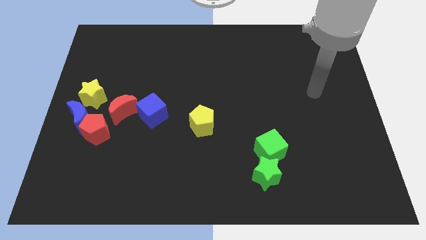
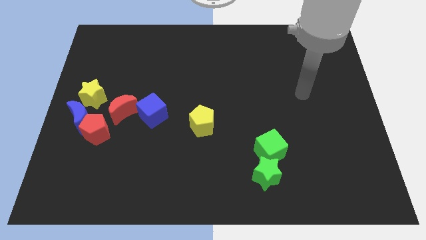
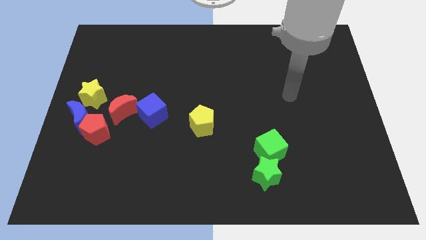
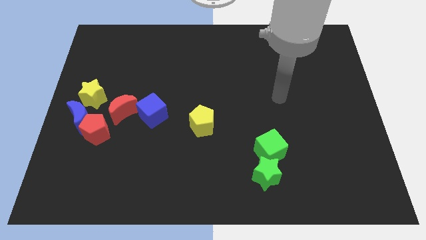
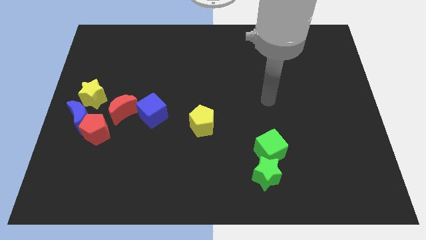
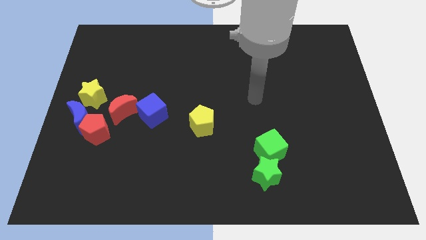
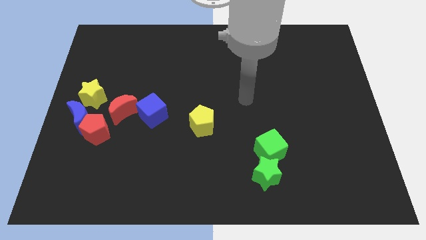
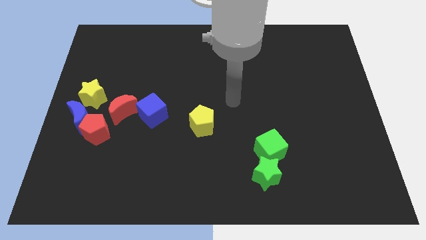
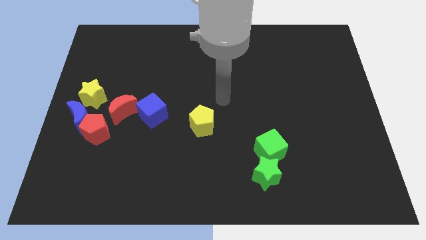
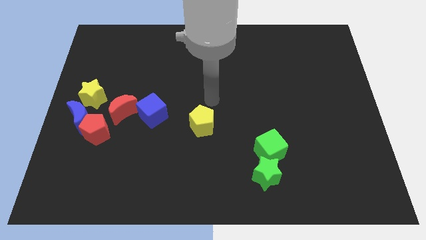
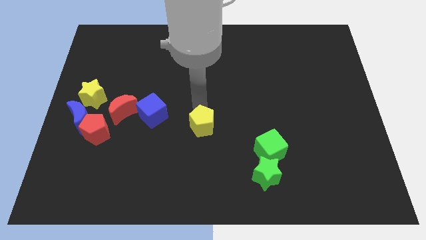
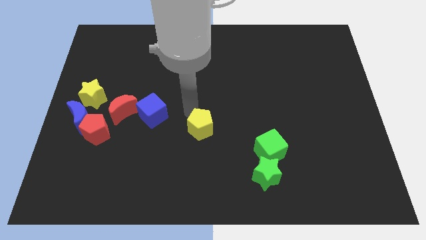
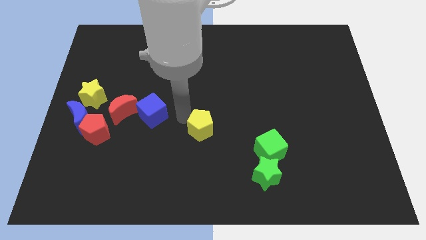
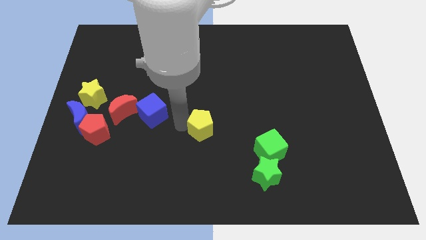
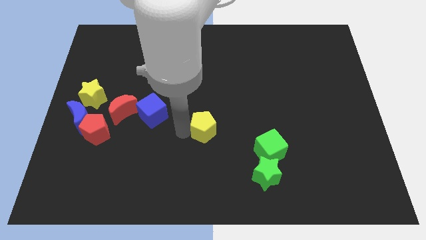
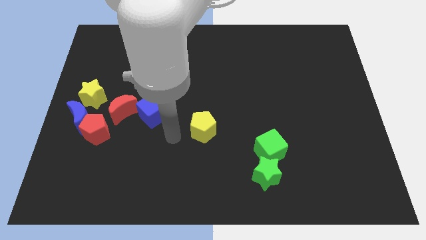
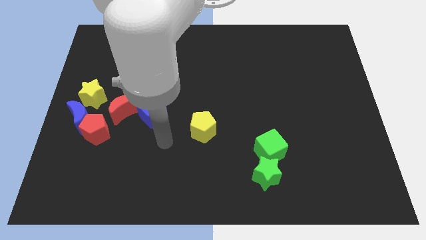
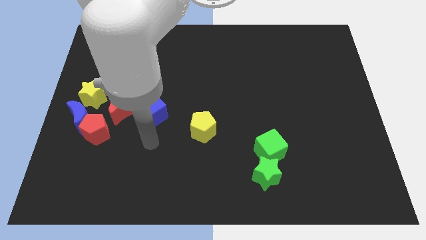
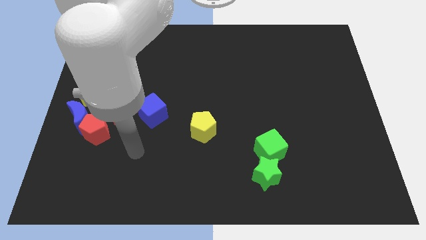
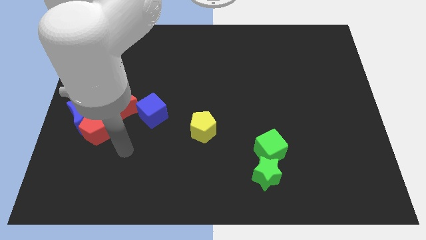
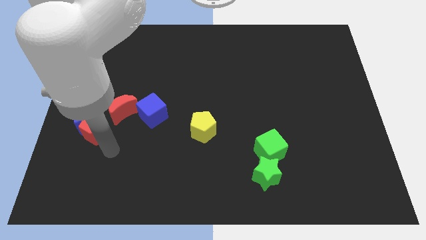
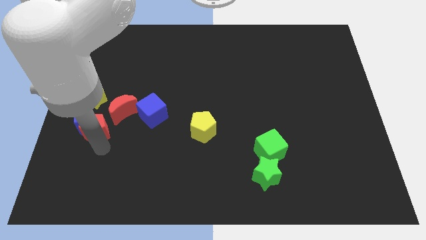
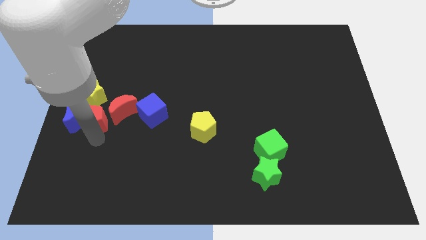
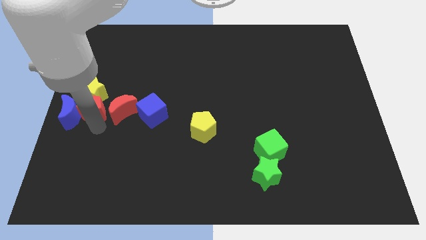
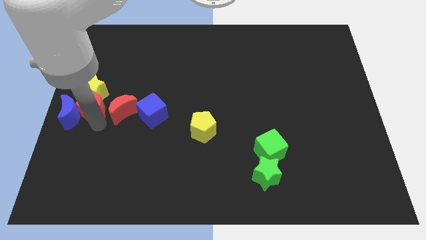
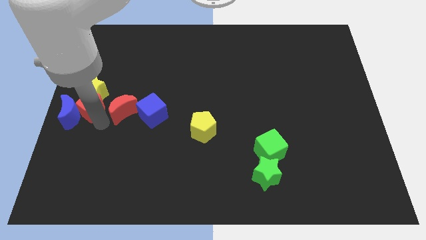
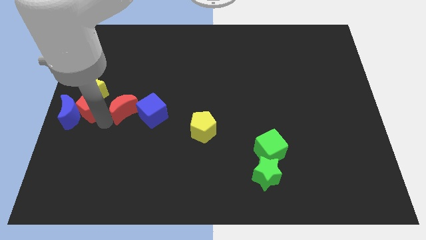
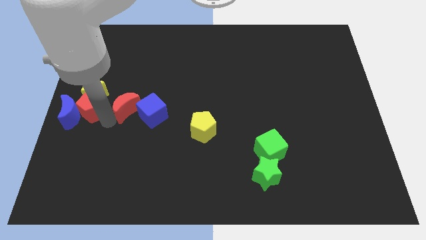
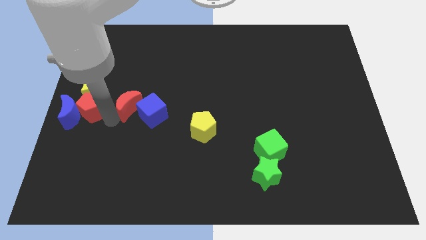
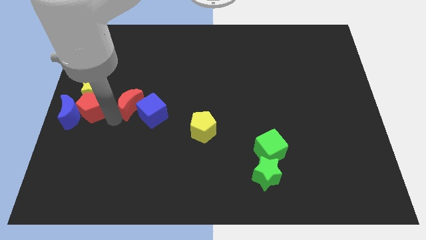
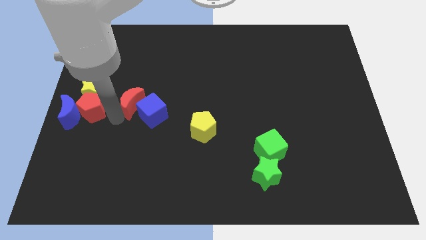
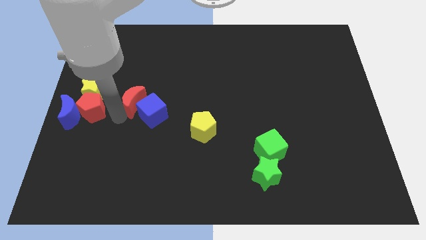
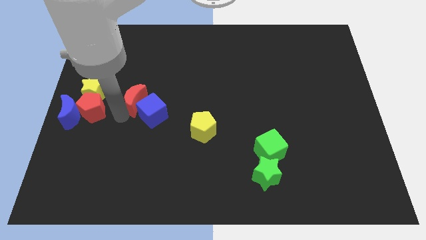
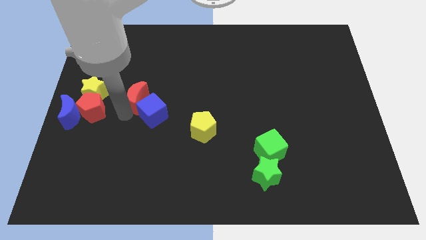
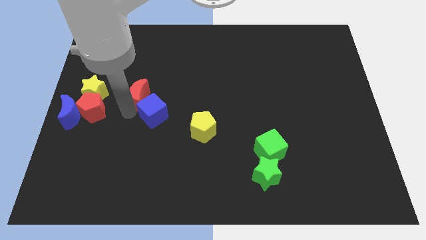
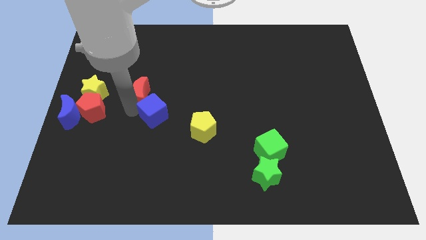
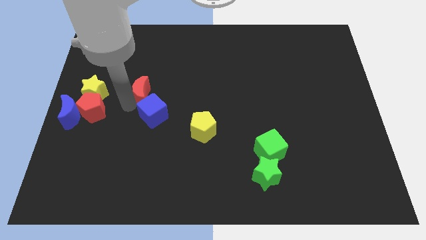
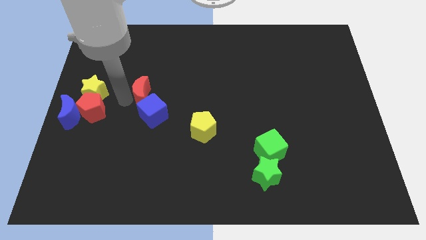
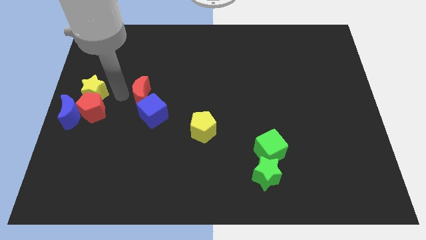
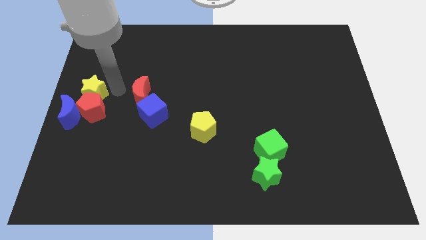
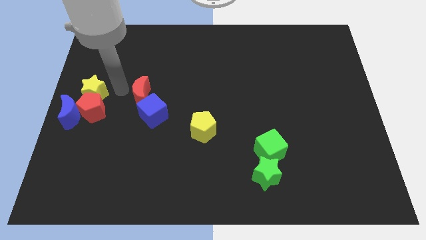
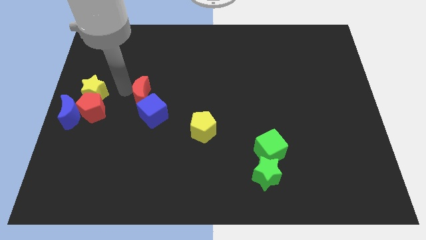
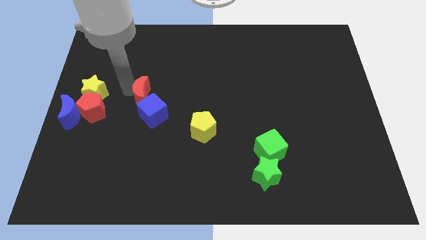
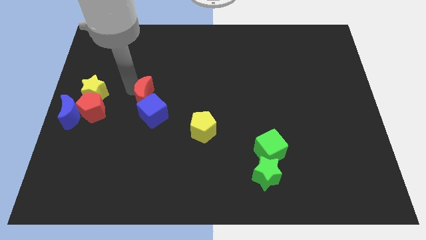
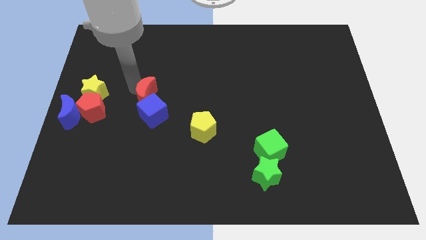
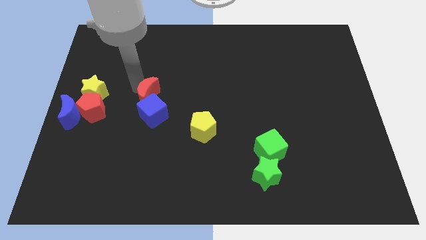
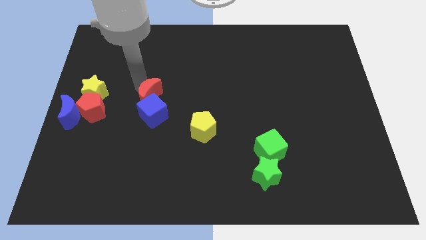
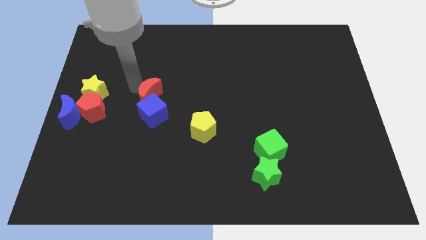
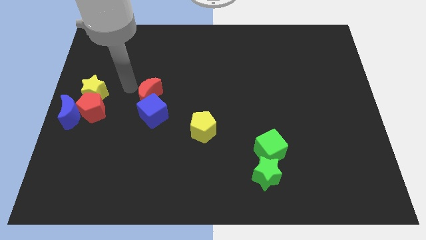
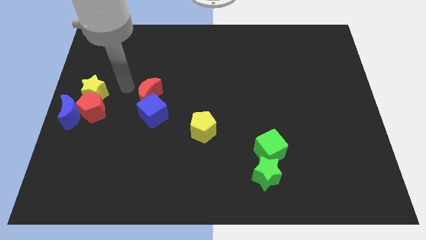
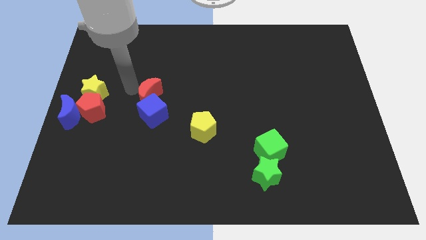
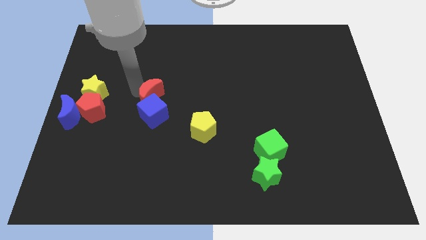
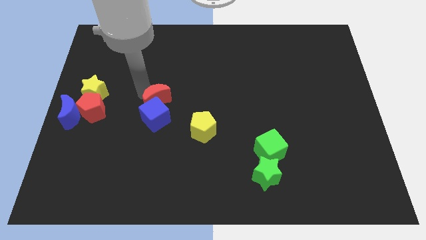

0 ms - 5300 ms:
move the red moon right a bit

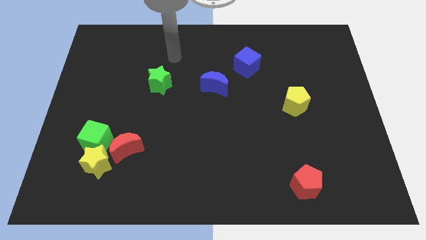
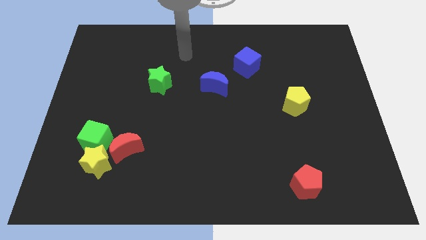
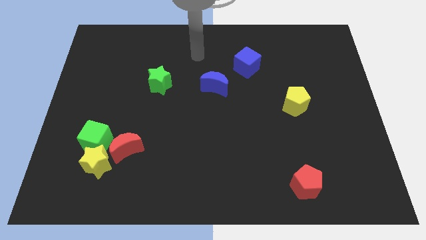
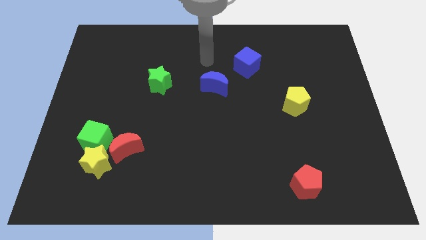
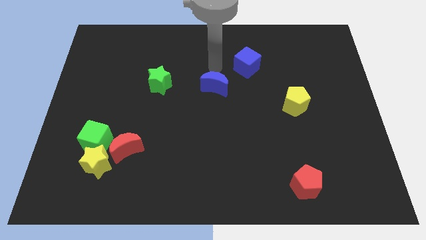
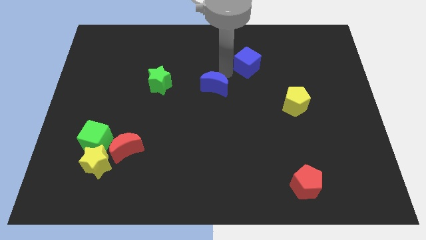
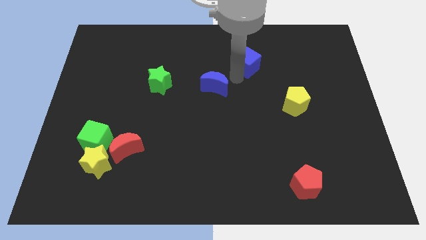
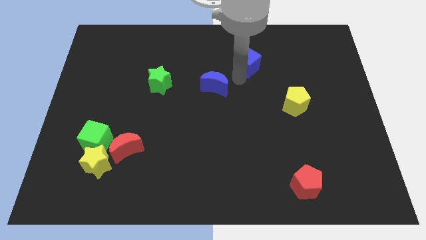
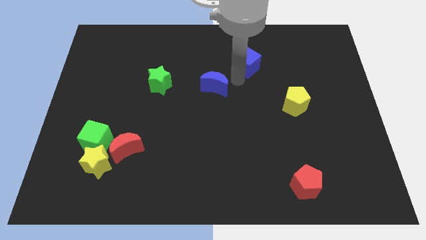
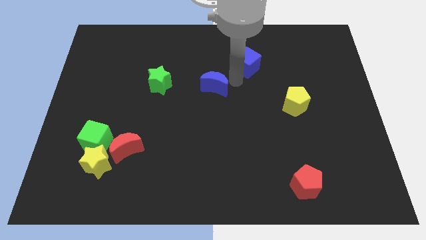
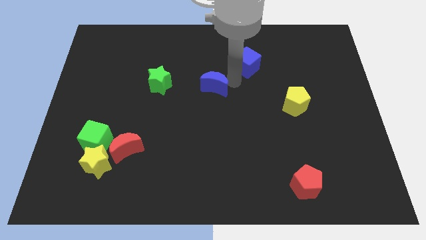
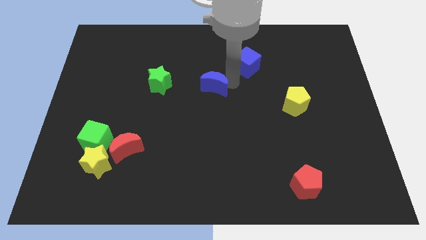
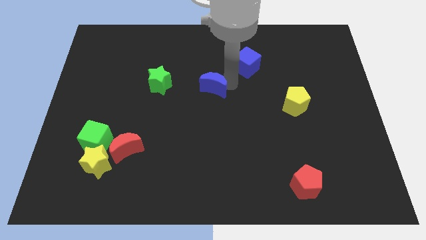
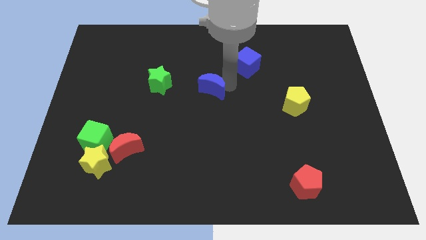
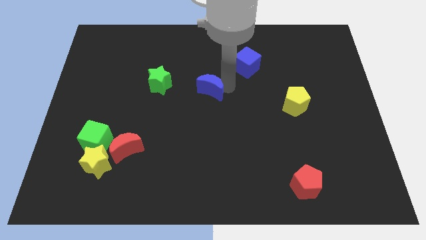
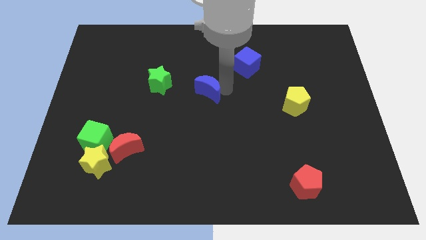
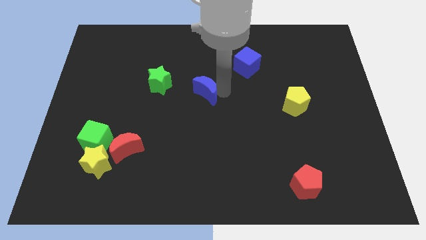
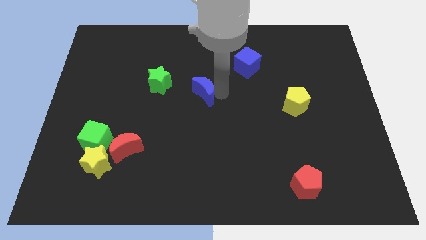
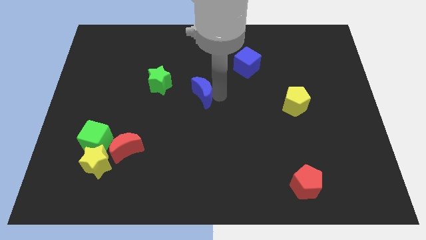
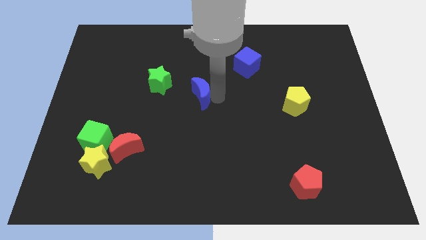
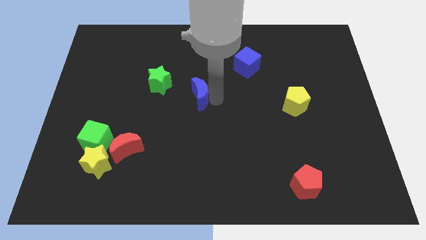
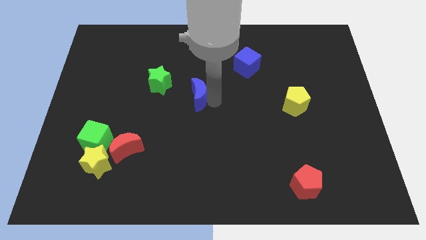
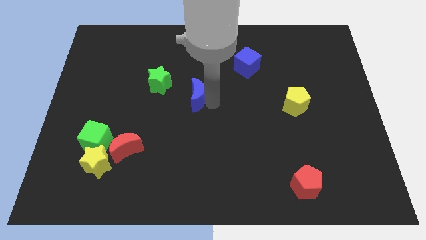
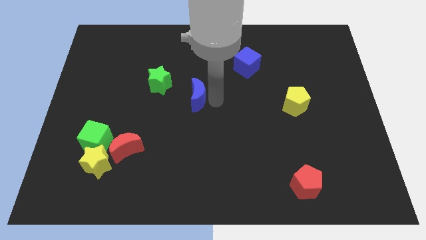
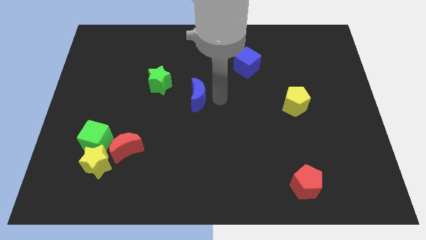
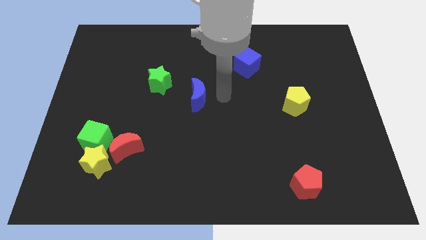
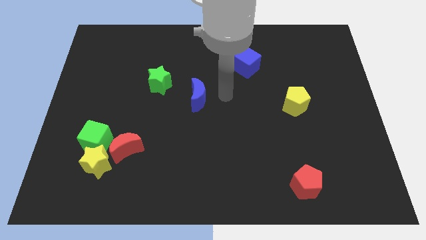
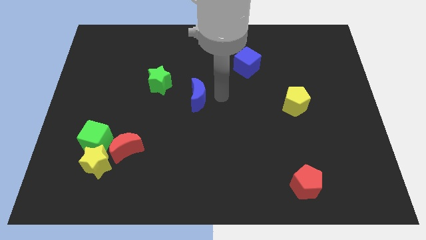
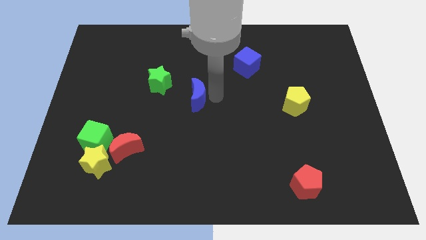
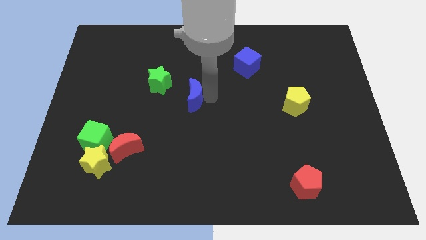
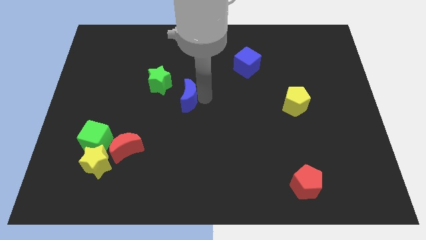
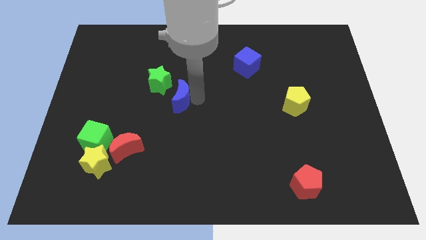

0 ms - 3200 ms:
push the blue moon left somewhat
